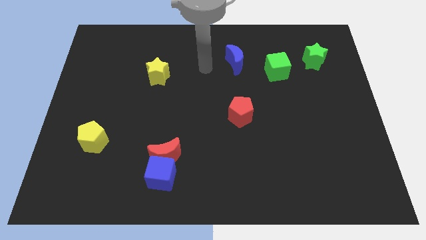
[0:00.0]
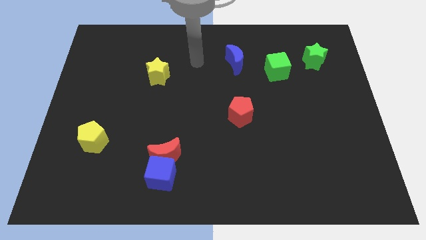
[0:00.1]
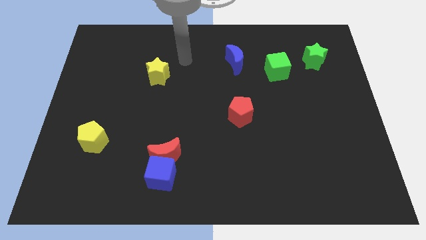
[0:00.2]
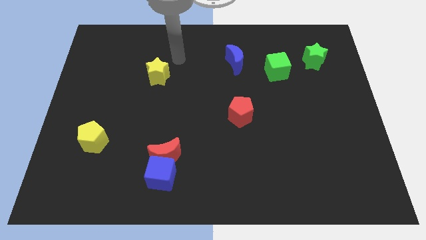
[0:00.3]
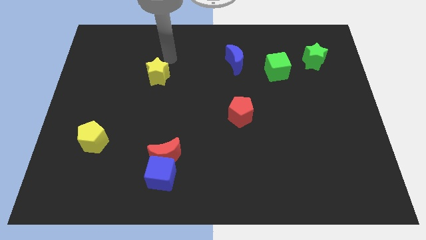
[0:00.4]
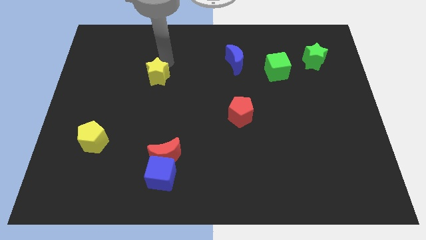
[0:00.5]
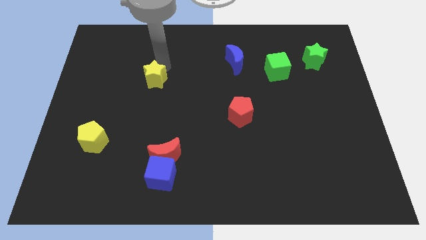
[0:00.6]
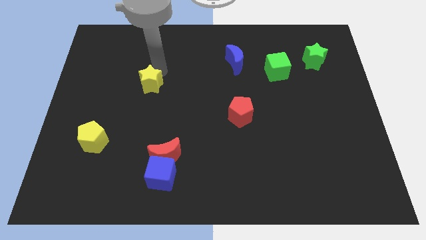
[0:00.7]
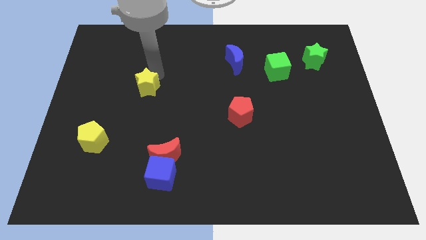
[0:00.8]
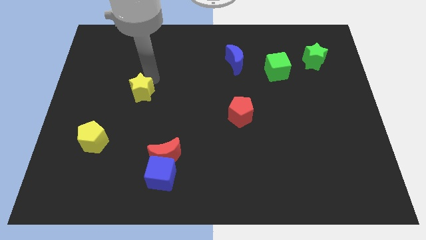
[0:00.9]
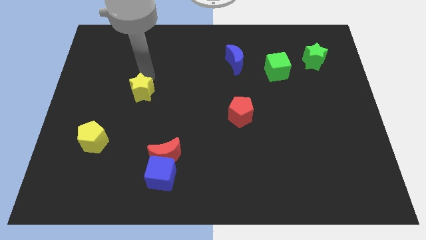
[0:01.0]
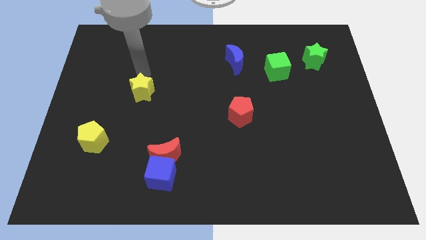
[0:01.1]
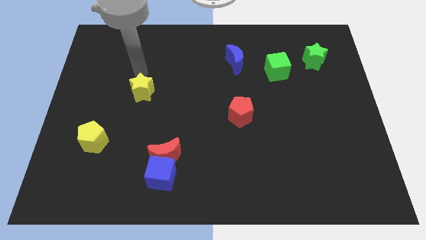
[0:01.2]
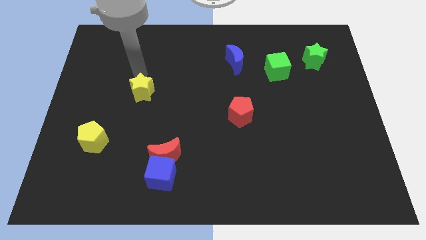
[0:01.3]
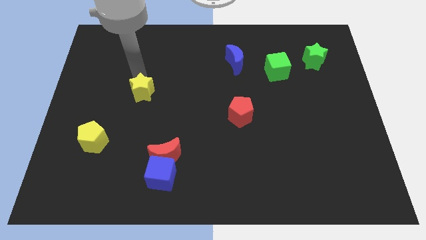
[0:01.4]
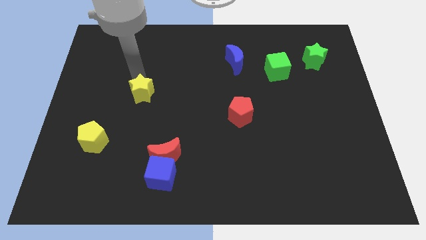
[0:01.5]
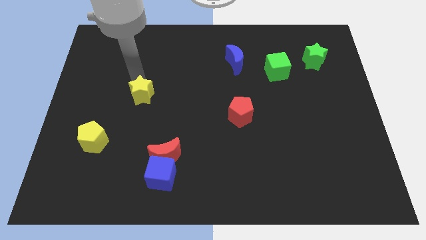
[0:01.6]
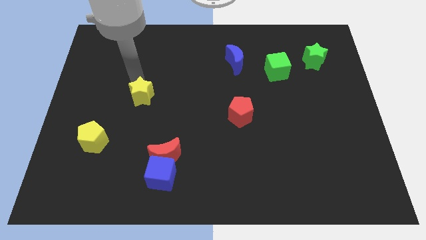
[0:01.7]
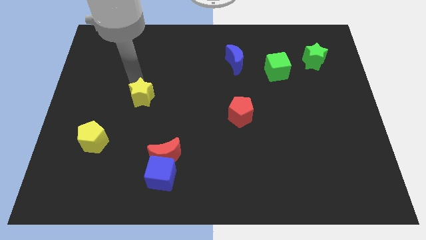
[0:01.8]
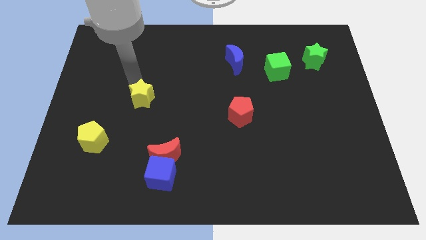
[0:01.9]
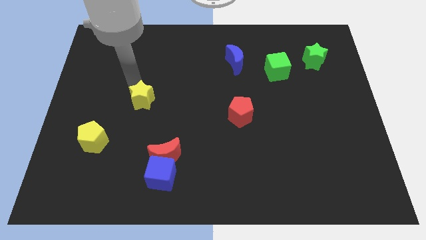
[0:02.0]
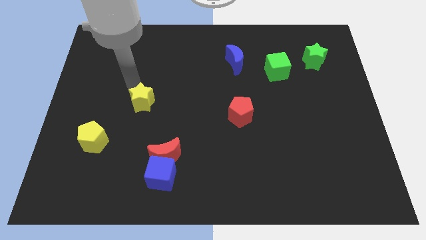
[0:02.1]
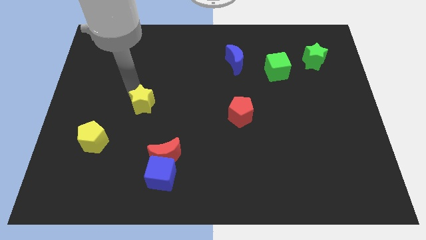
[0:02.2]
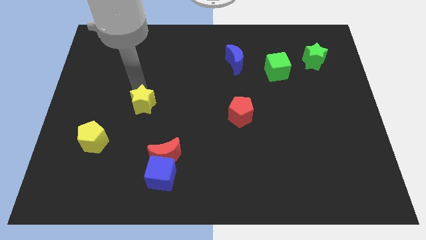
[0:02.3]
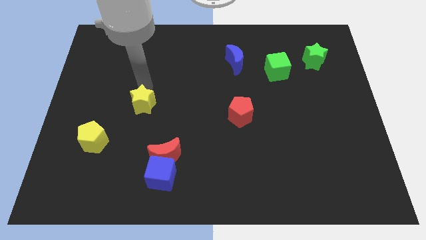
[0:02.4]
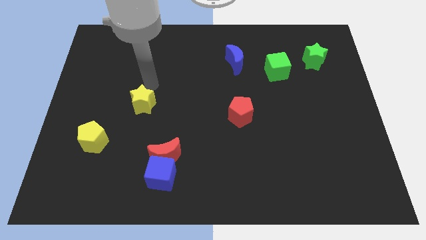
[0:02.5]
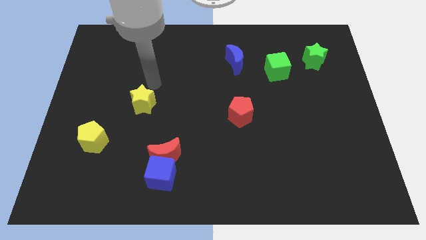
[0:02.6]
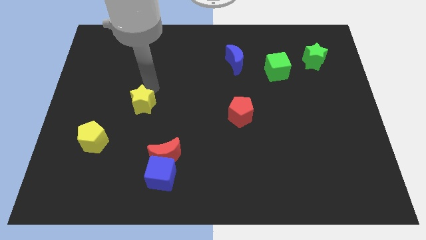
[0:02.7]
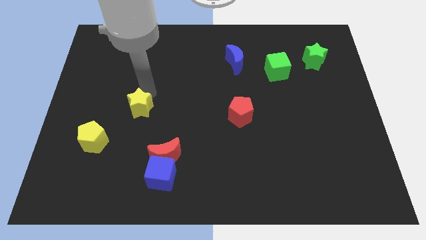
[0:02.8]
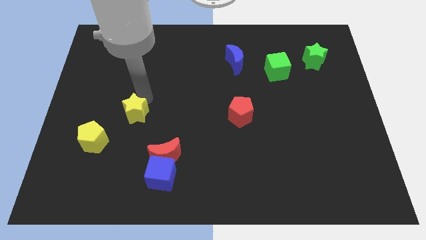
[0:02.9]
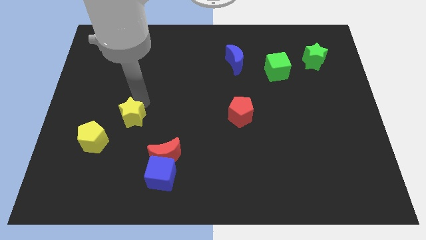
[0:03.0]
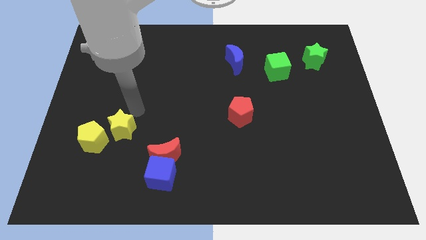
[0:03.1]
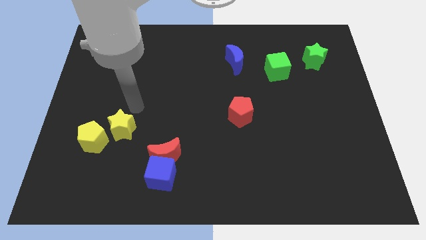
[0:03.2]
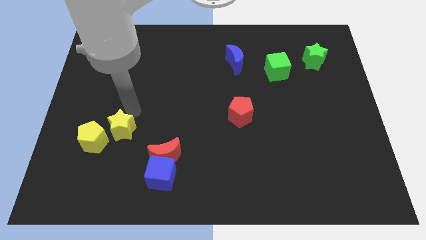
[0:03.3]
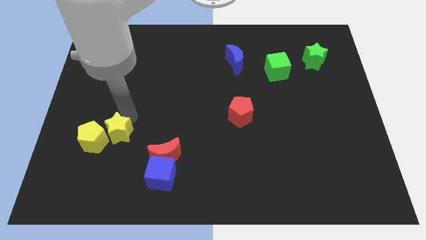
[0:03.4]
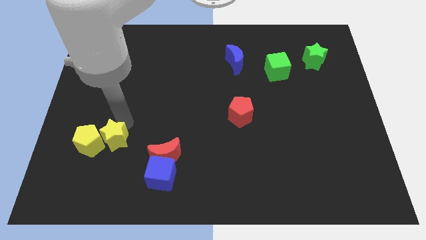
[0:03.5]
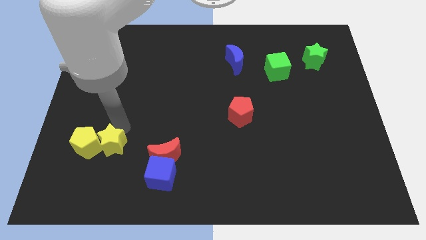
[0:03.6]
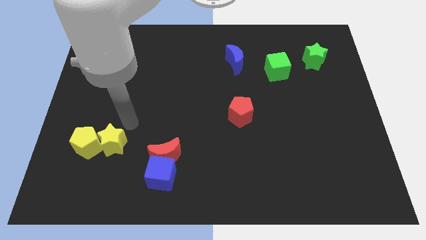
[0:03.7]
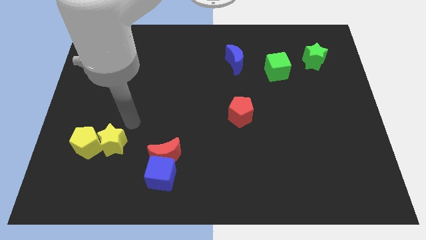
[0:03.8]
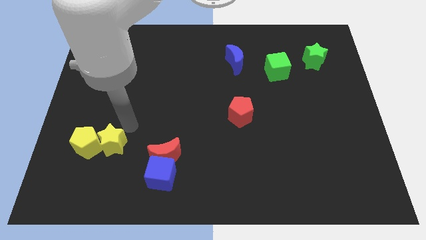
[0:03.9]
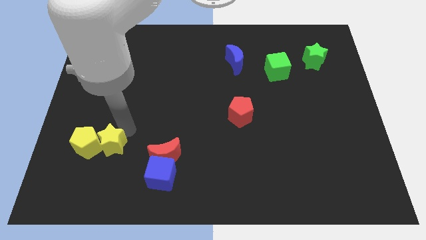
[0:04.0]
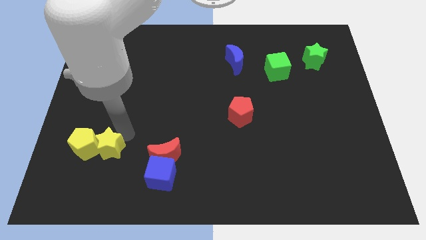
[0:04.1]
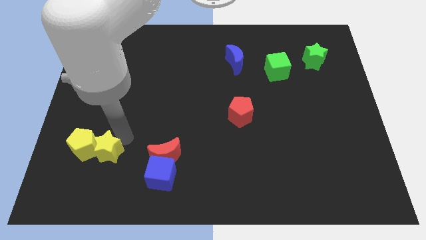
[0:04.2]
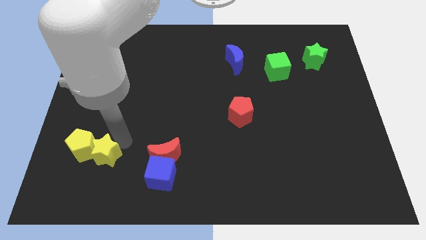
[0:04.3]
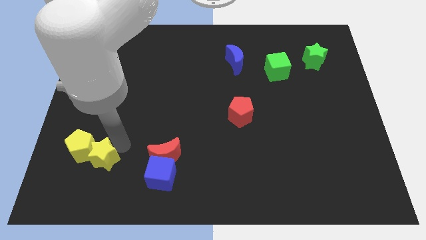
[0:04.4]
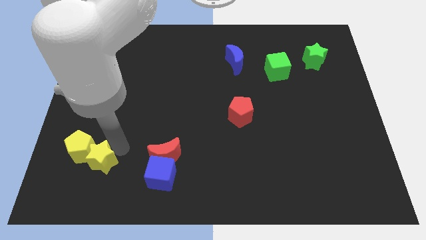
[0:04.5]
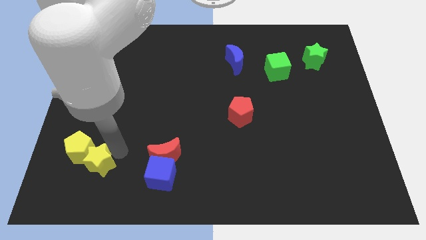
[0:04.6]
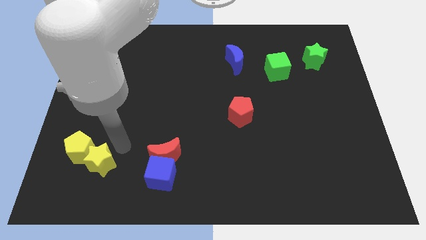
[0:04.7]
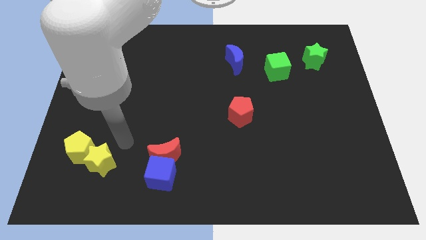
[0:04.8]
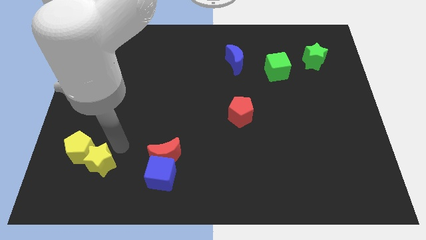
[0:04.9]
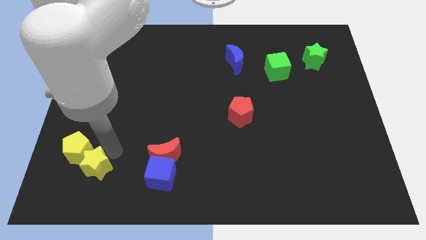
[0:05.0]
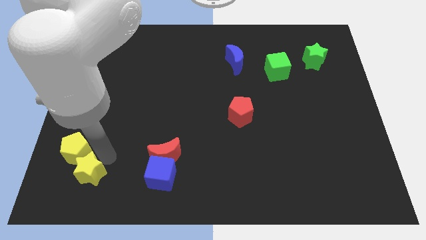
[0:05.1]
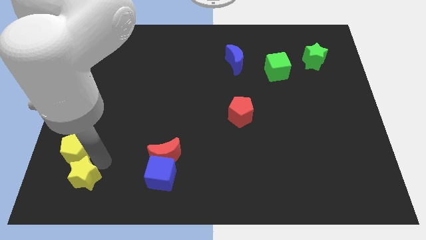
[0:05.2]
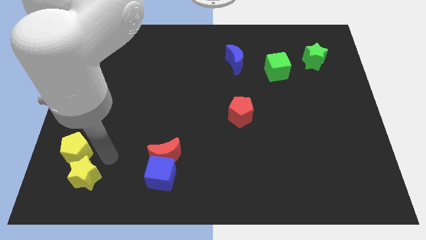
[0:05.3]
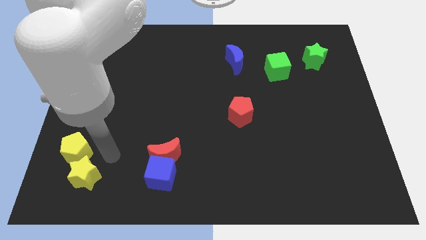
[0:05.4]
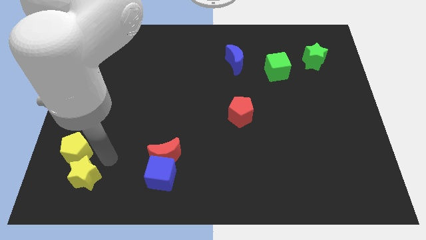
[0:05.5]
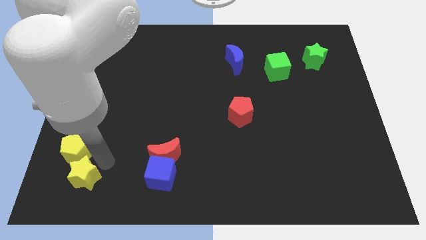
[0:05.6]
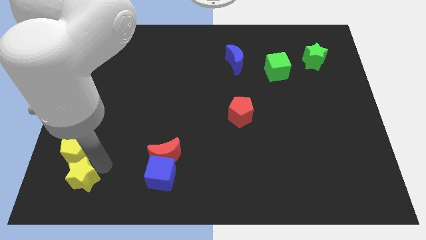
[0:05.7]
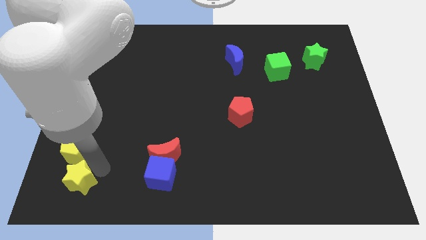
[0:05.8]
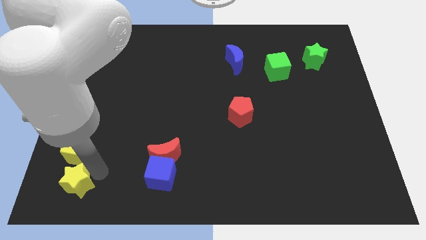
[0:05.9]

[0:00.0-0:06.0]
move the yellow star to the lower left corner

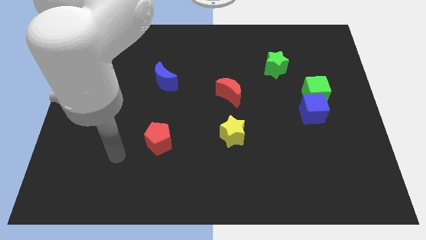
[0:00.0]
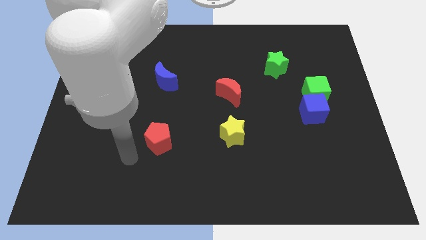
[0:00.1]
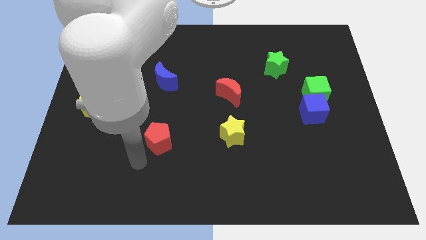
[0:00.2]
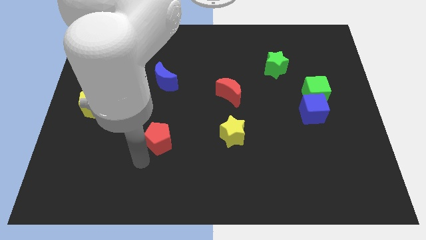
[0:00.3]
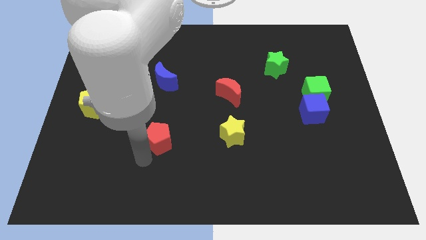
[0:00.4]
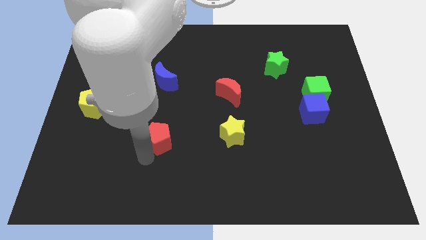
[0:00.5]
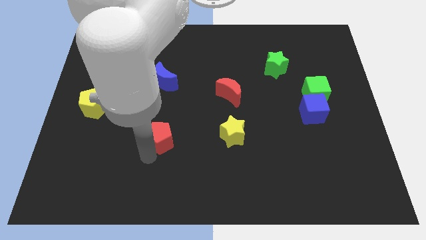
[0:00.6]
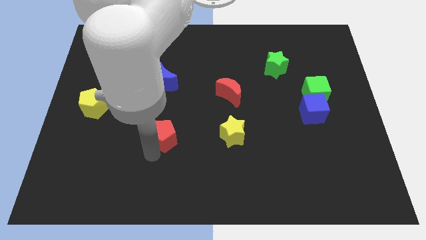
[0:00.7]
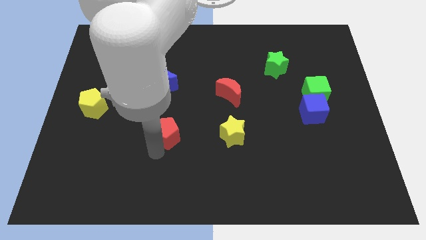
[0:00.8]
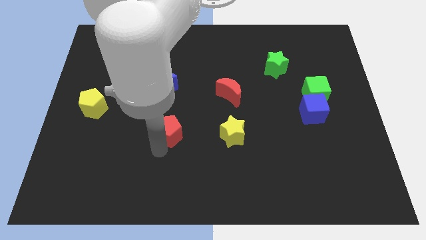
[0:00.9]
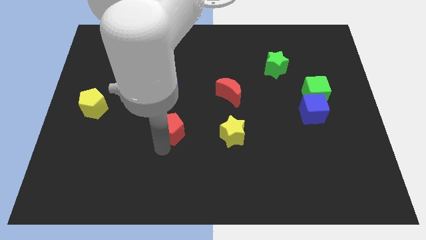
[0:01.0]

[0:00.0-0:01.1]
push the red pentagon to the middle
